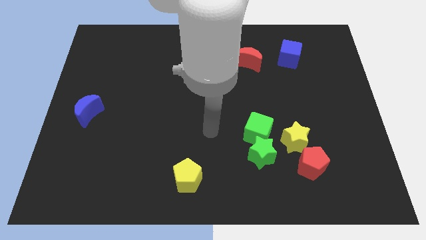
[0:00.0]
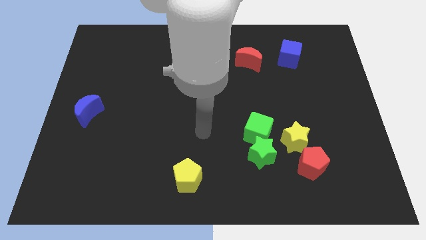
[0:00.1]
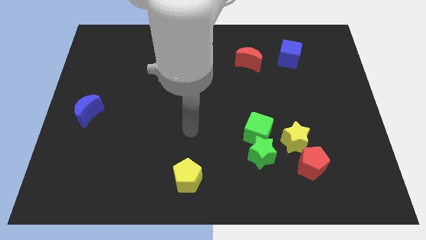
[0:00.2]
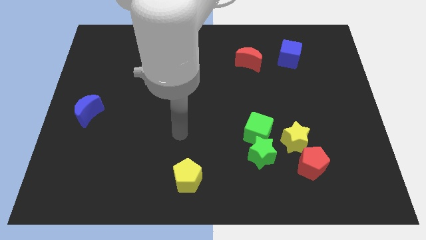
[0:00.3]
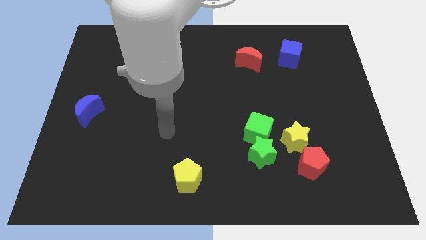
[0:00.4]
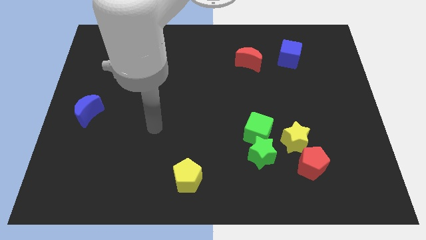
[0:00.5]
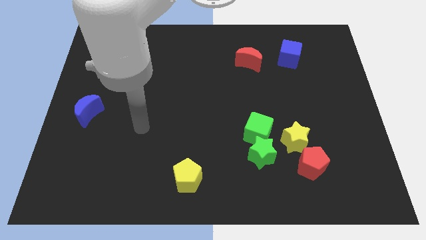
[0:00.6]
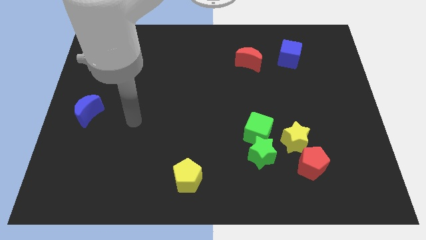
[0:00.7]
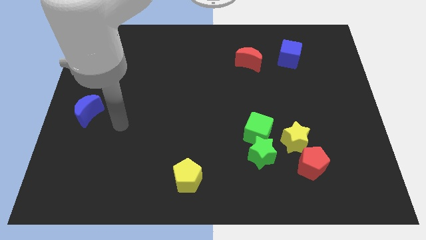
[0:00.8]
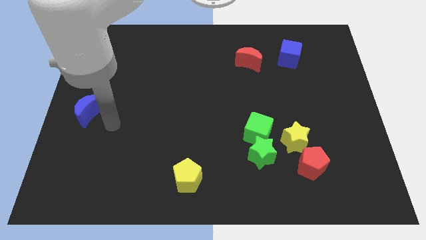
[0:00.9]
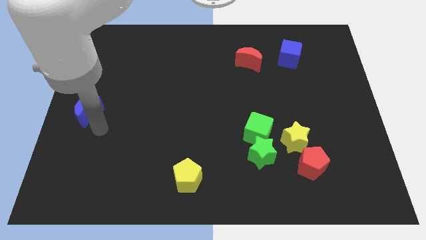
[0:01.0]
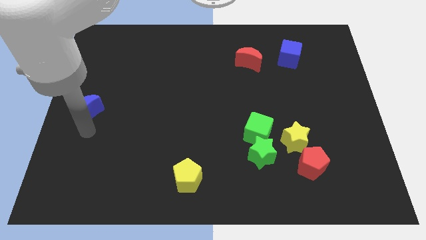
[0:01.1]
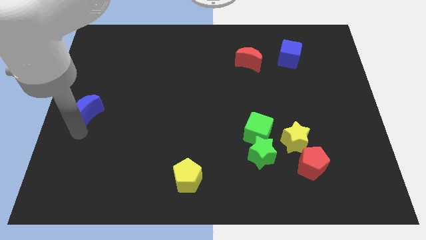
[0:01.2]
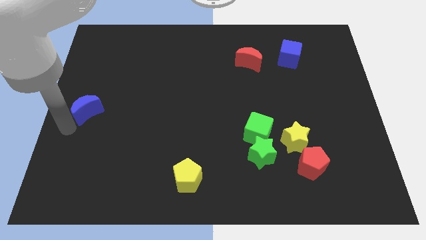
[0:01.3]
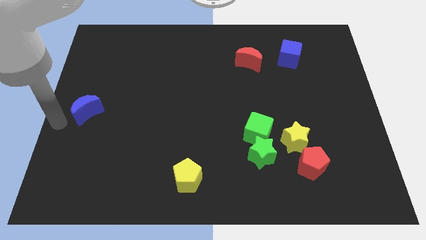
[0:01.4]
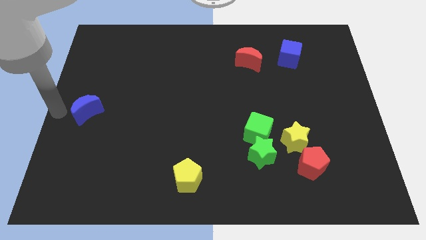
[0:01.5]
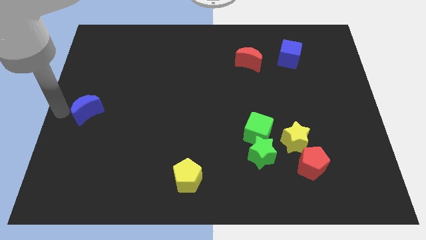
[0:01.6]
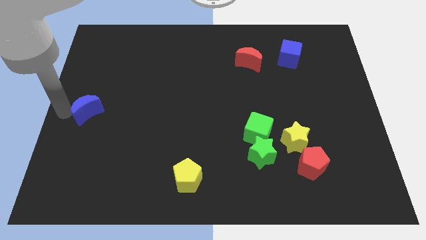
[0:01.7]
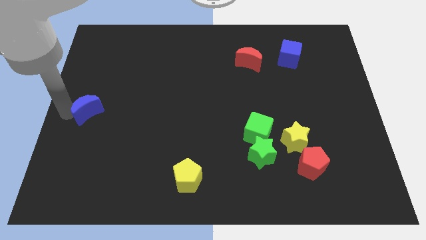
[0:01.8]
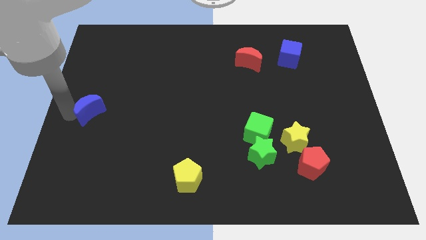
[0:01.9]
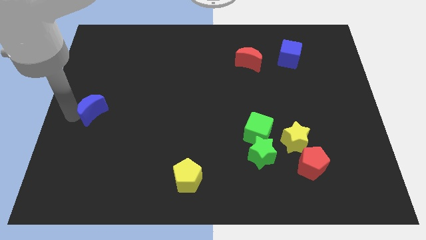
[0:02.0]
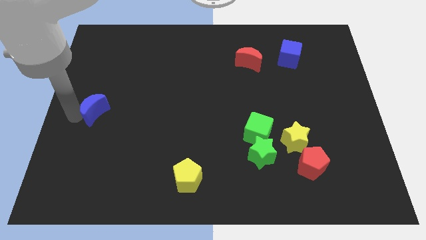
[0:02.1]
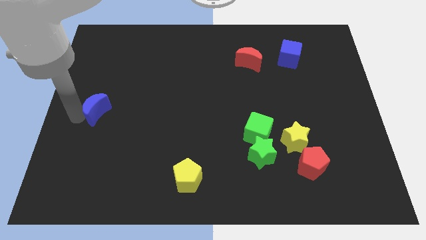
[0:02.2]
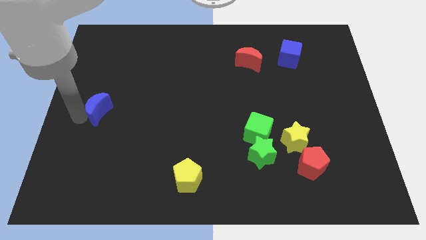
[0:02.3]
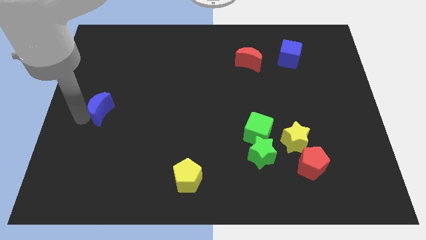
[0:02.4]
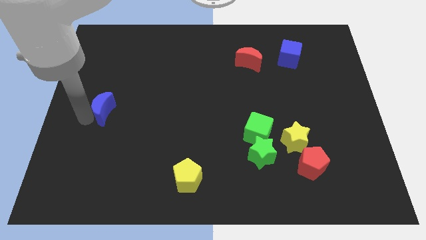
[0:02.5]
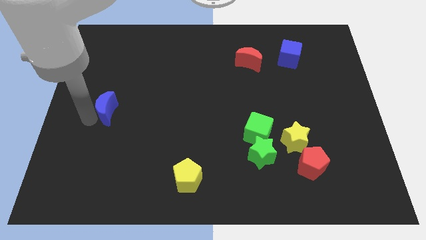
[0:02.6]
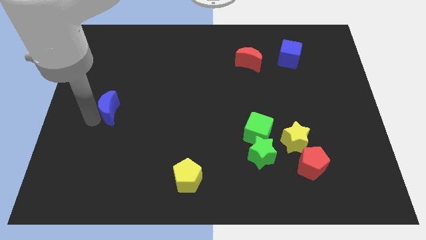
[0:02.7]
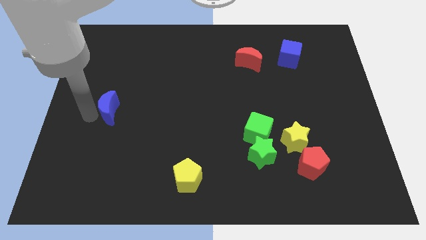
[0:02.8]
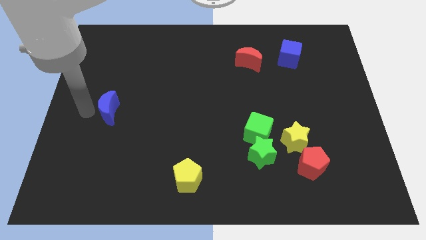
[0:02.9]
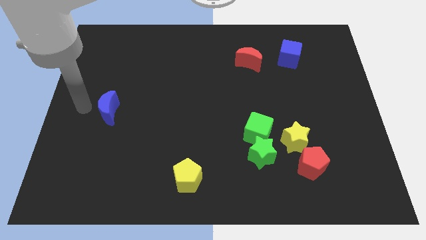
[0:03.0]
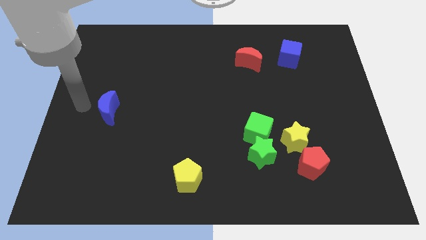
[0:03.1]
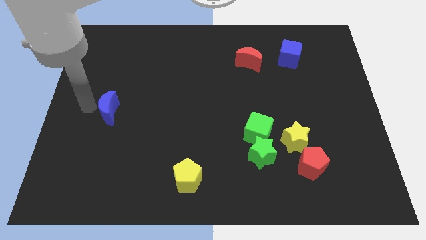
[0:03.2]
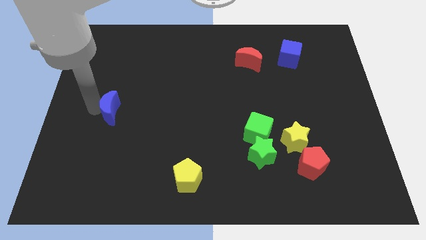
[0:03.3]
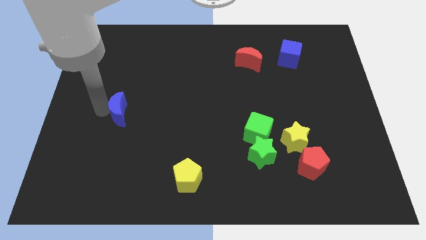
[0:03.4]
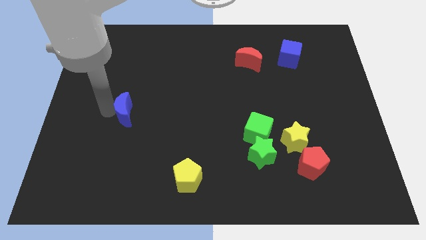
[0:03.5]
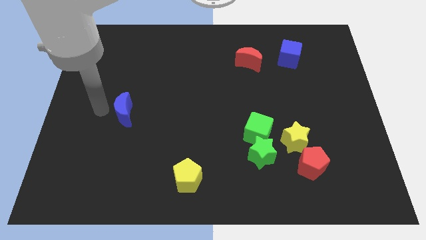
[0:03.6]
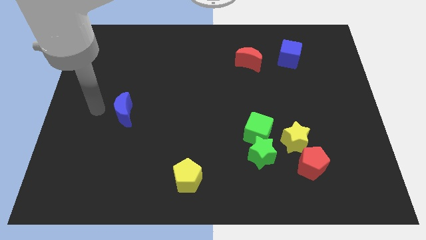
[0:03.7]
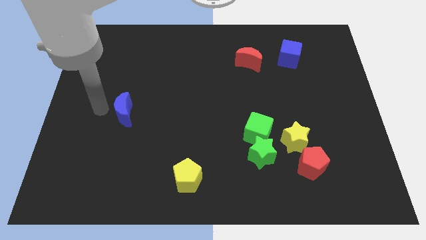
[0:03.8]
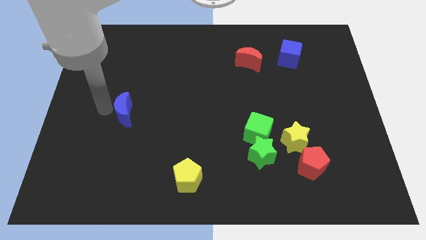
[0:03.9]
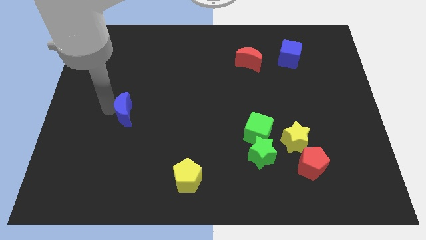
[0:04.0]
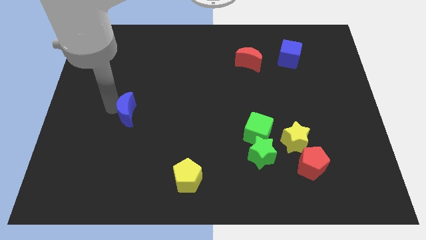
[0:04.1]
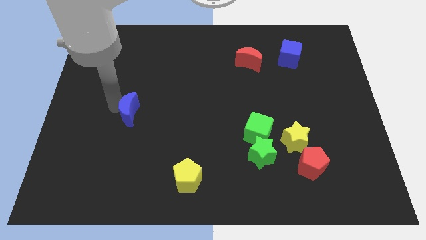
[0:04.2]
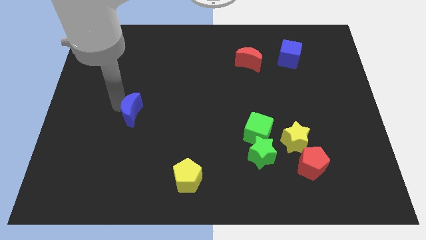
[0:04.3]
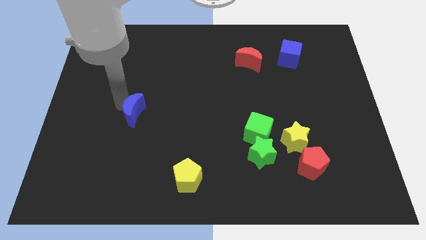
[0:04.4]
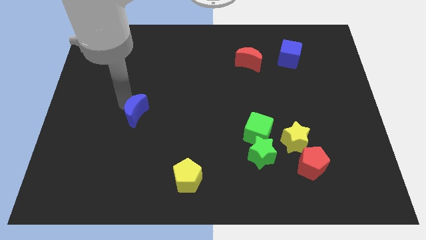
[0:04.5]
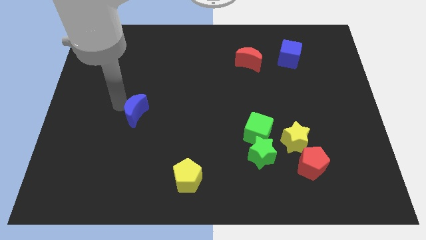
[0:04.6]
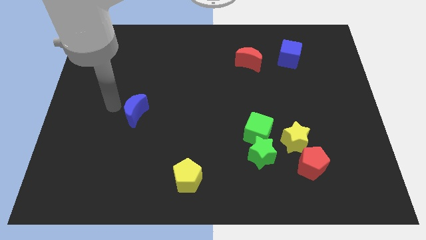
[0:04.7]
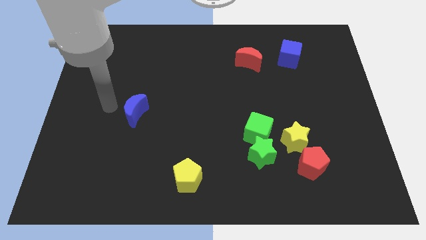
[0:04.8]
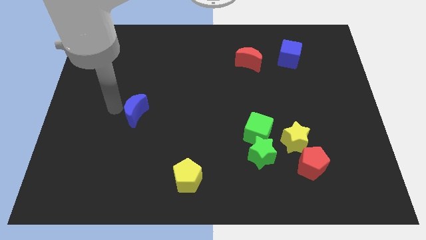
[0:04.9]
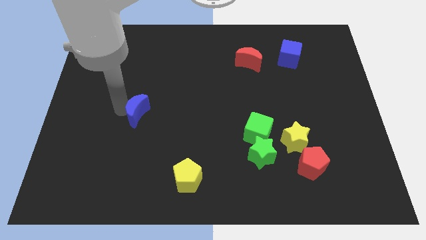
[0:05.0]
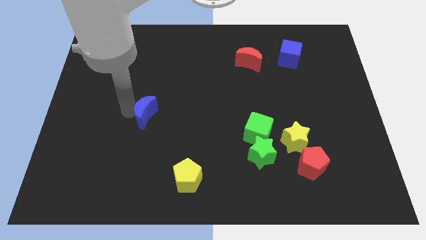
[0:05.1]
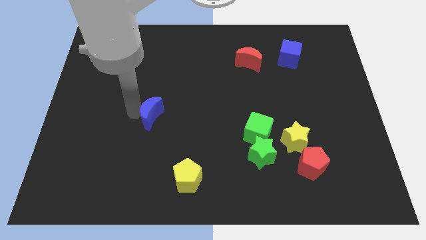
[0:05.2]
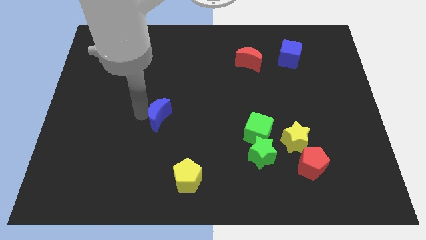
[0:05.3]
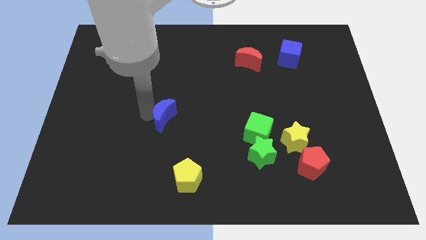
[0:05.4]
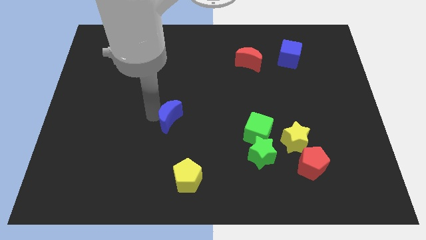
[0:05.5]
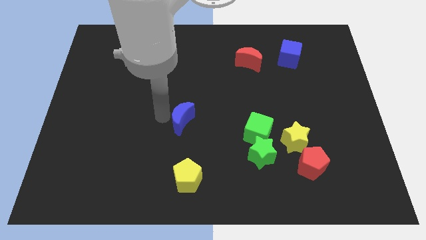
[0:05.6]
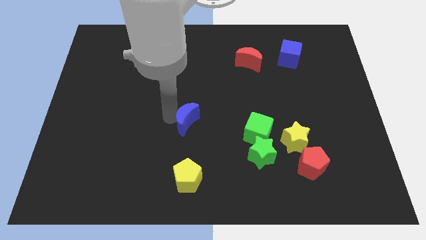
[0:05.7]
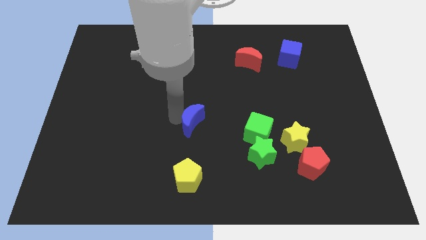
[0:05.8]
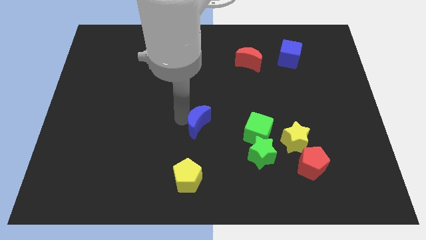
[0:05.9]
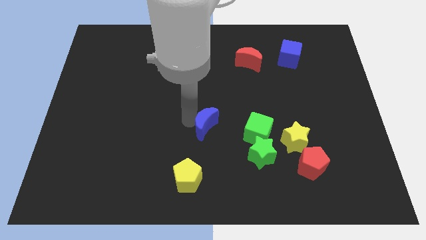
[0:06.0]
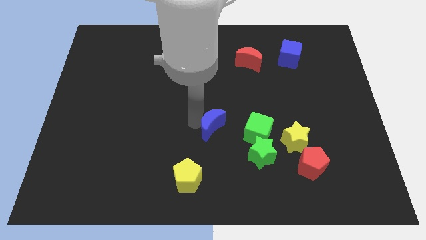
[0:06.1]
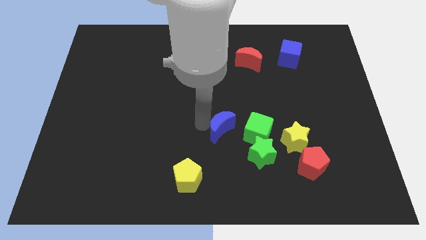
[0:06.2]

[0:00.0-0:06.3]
slide the blue moon to the top left of the green star
